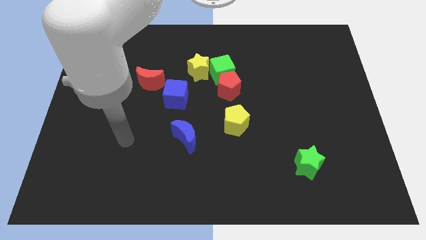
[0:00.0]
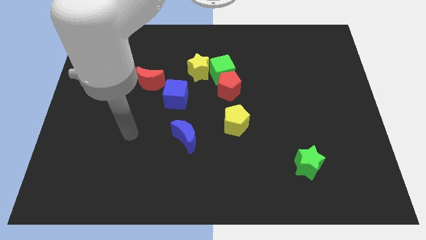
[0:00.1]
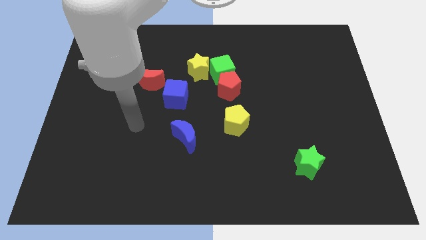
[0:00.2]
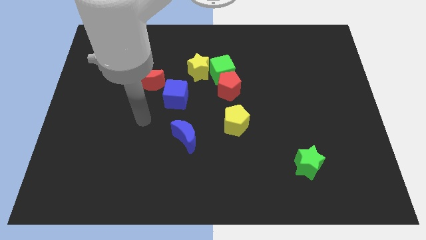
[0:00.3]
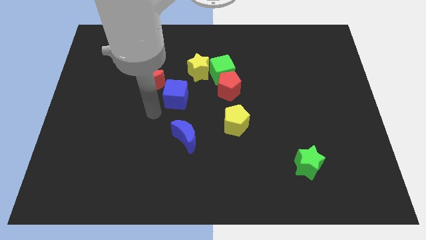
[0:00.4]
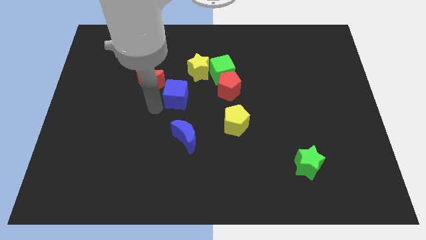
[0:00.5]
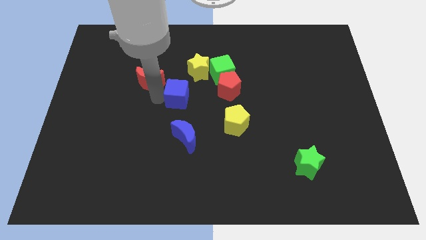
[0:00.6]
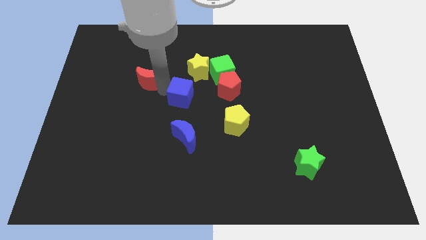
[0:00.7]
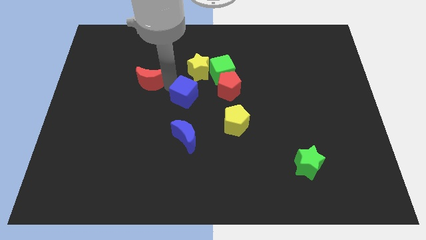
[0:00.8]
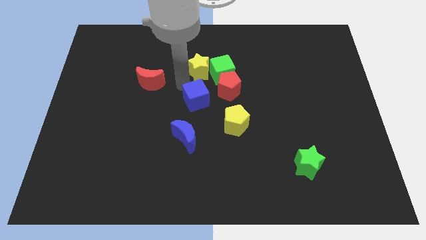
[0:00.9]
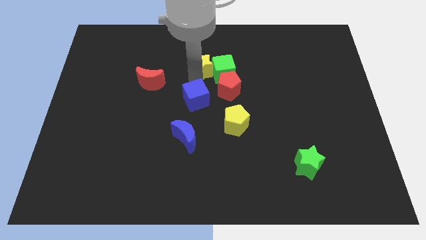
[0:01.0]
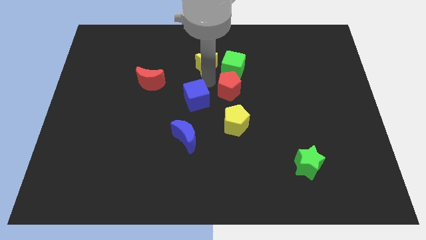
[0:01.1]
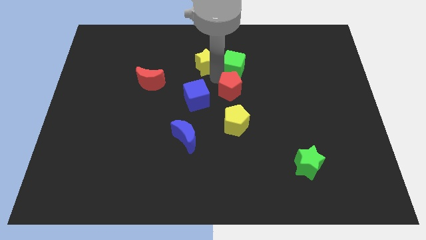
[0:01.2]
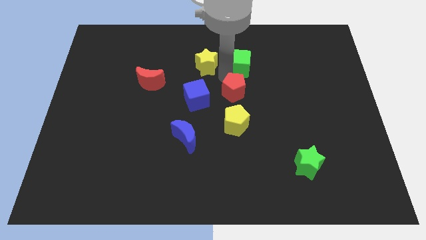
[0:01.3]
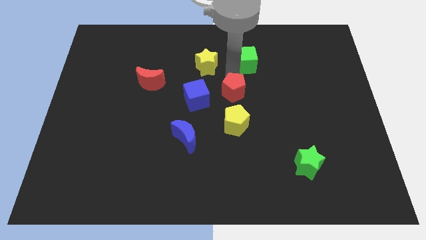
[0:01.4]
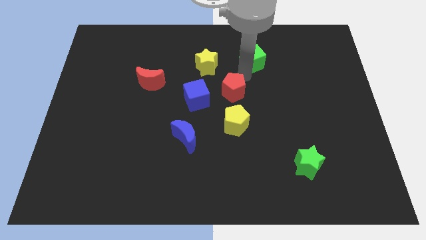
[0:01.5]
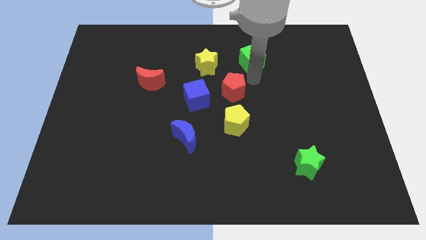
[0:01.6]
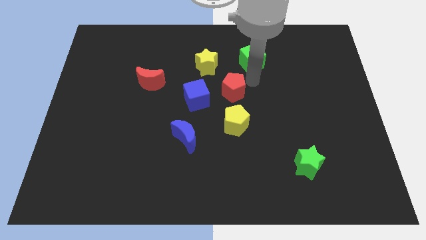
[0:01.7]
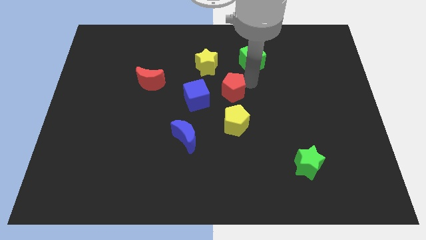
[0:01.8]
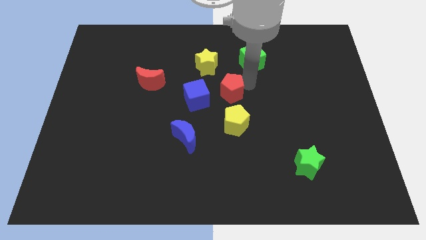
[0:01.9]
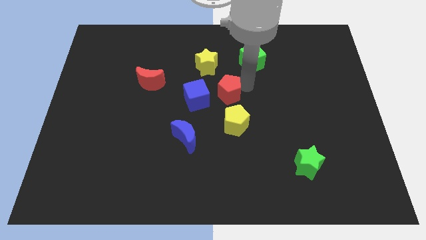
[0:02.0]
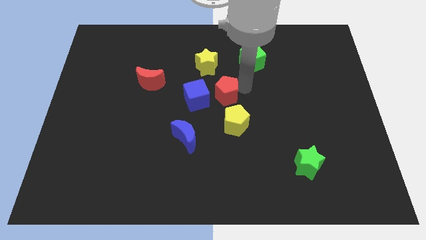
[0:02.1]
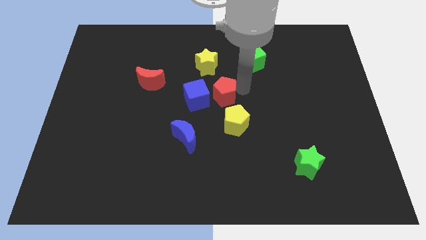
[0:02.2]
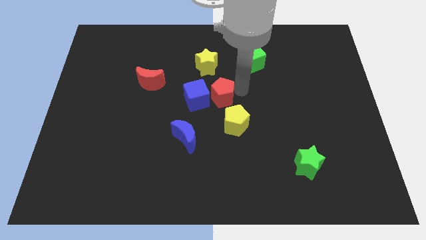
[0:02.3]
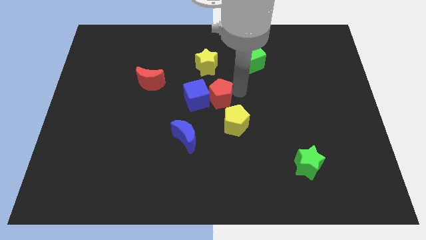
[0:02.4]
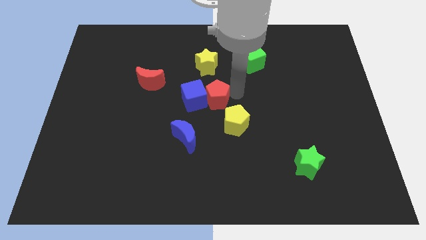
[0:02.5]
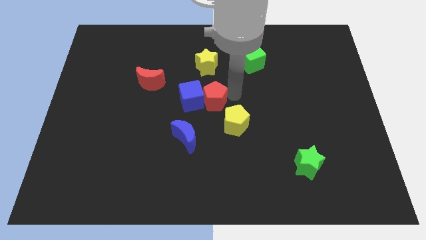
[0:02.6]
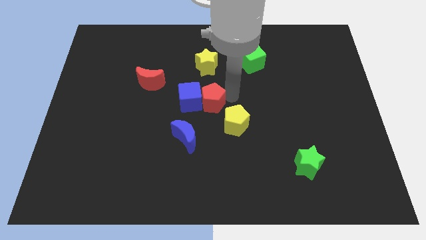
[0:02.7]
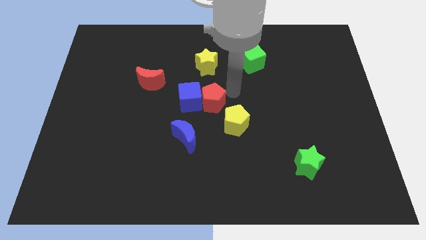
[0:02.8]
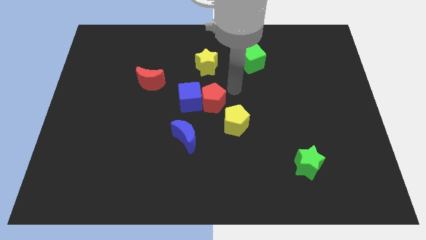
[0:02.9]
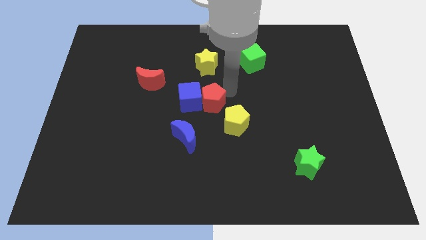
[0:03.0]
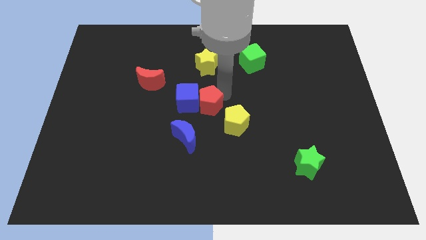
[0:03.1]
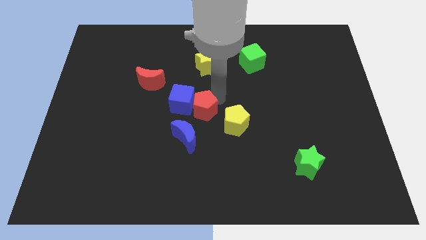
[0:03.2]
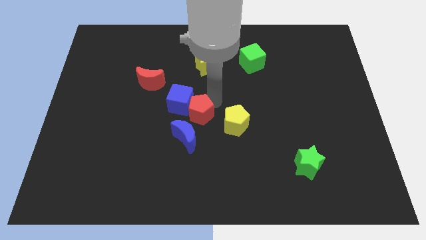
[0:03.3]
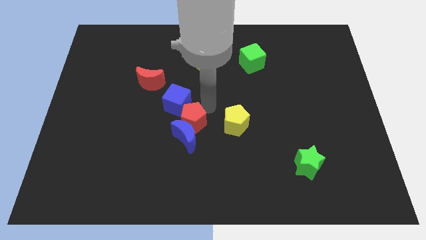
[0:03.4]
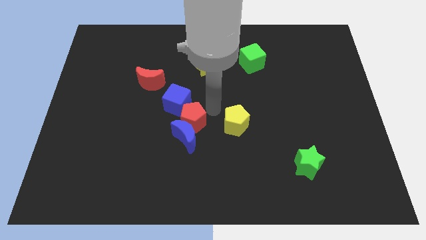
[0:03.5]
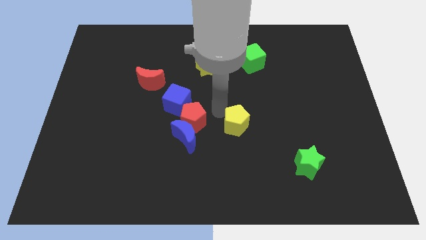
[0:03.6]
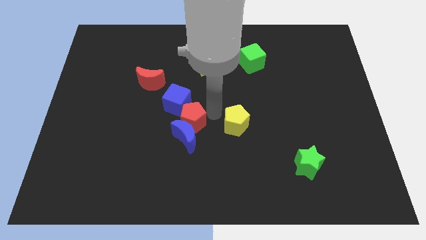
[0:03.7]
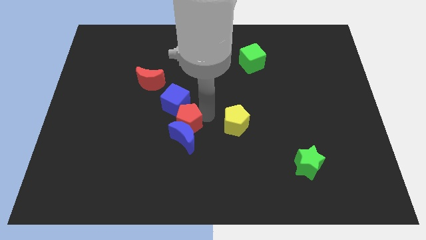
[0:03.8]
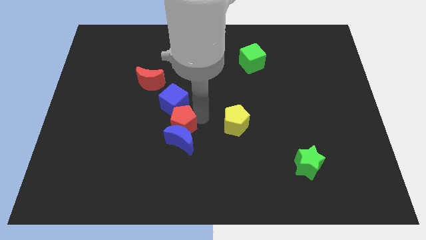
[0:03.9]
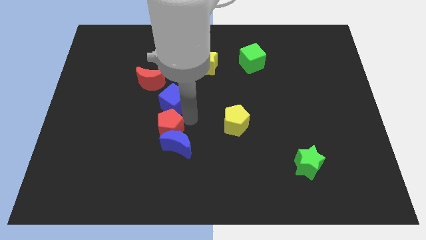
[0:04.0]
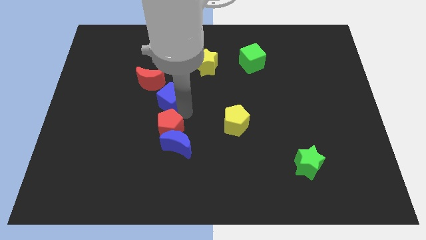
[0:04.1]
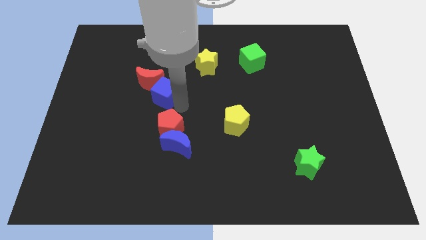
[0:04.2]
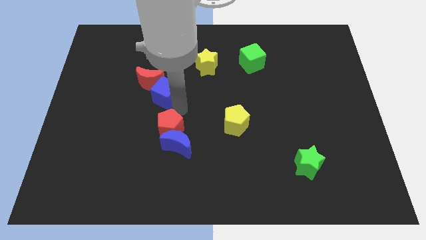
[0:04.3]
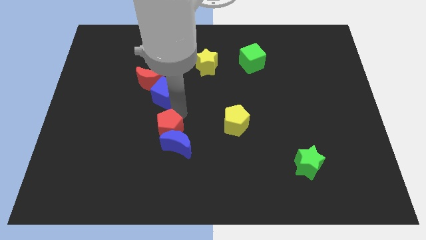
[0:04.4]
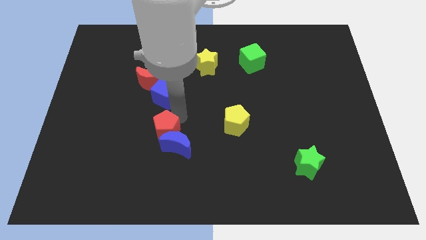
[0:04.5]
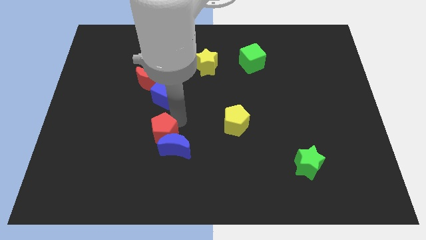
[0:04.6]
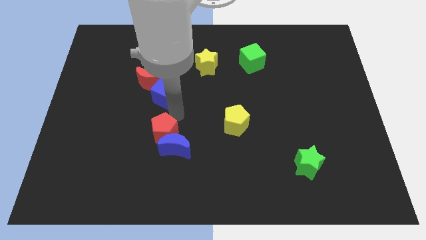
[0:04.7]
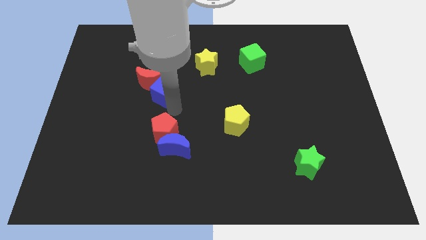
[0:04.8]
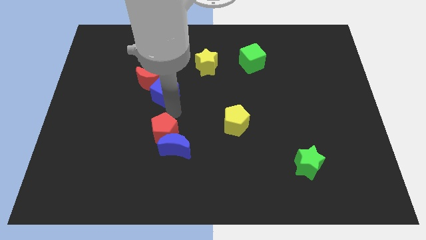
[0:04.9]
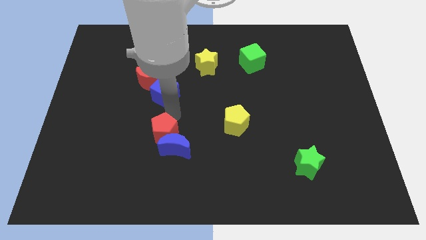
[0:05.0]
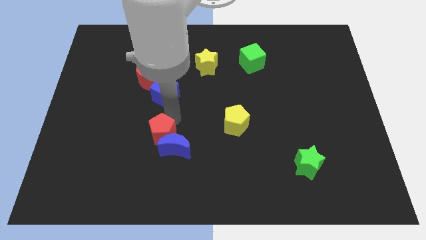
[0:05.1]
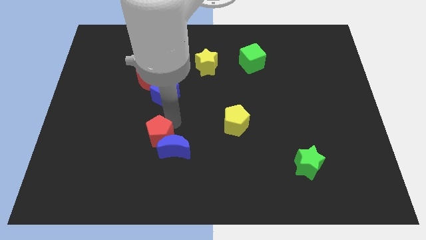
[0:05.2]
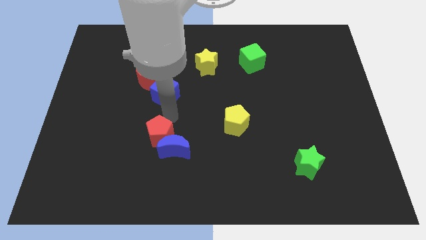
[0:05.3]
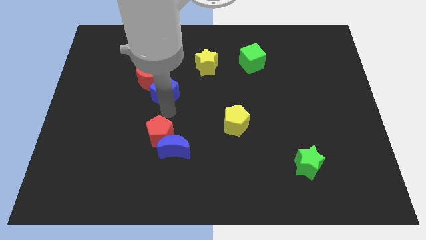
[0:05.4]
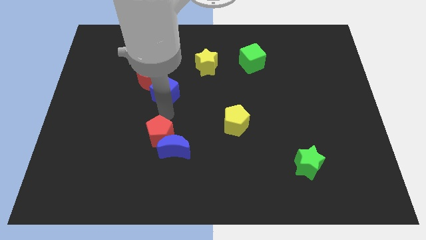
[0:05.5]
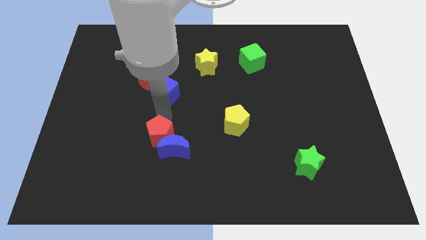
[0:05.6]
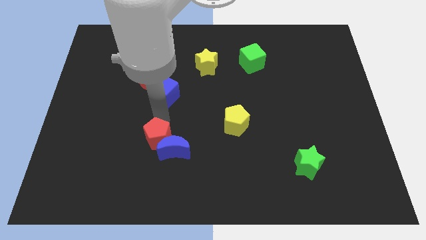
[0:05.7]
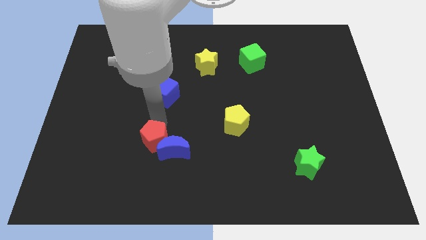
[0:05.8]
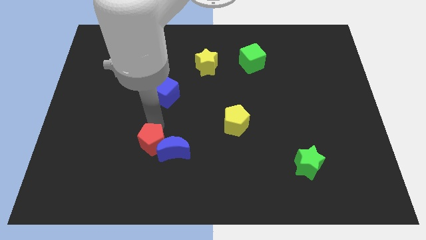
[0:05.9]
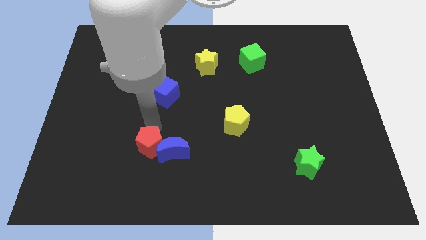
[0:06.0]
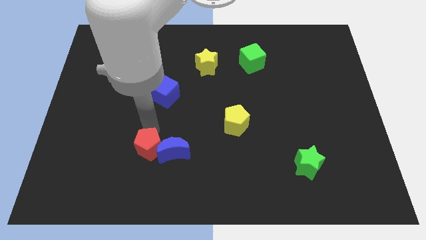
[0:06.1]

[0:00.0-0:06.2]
slide the red pentagon to the bottom left of the blue moon

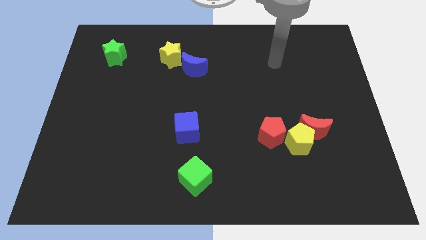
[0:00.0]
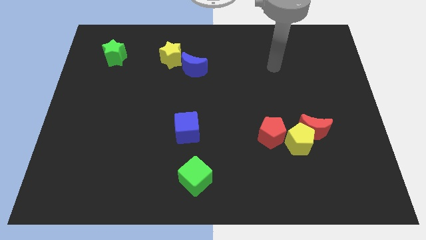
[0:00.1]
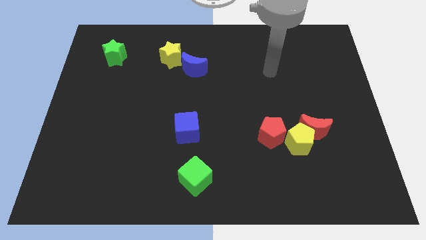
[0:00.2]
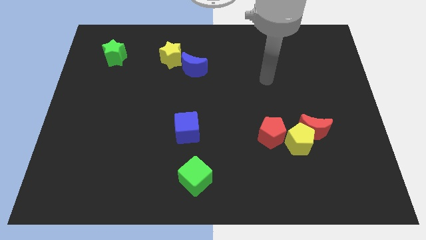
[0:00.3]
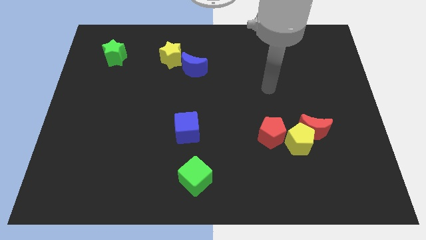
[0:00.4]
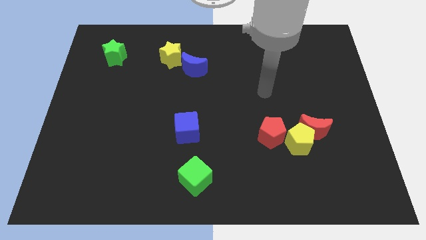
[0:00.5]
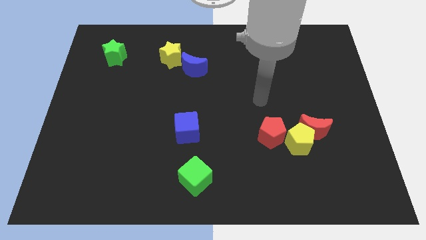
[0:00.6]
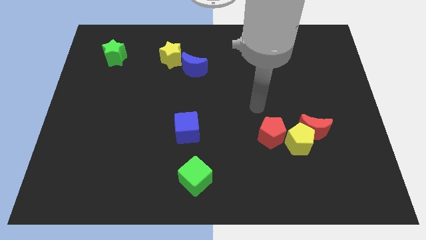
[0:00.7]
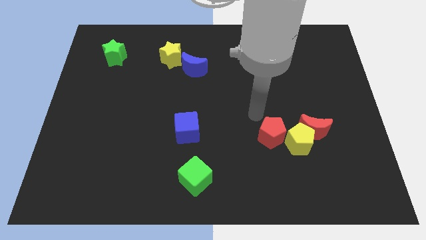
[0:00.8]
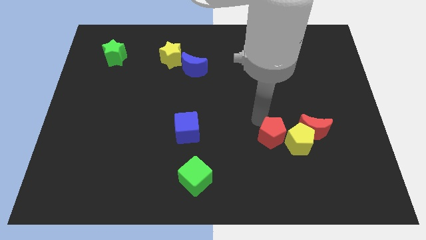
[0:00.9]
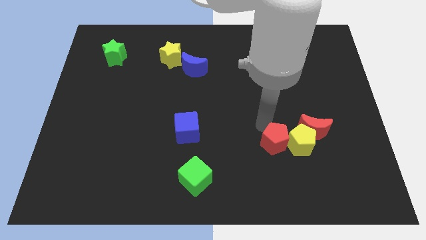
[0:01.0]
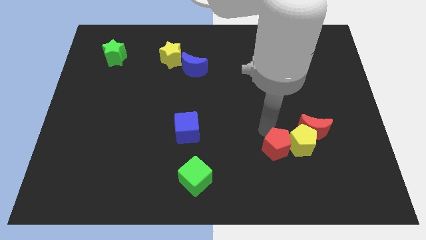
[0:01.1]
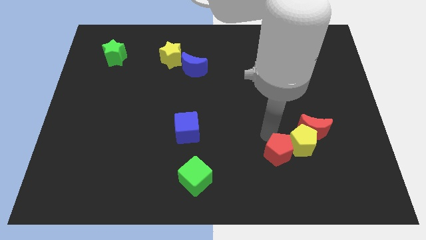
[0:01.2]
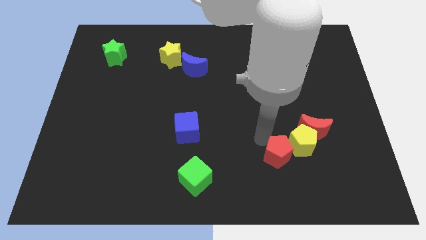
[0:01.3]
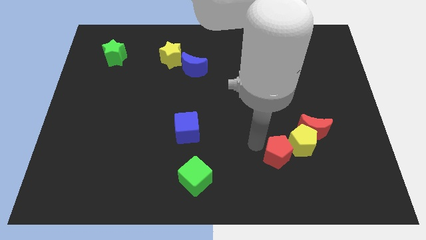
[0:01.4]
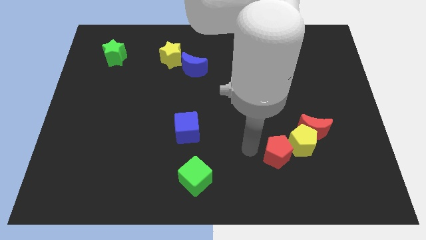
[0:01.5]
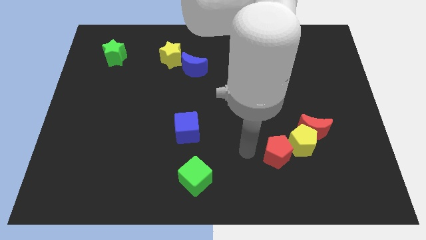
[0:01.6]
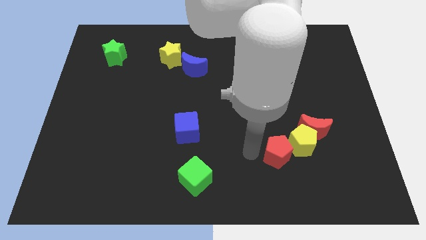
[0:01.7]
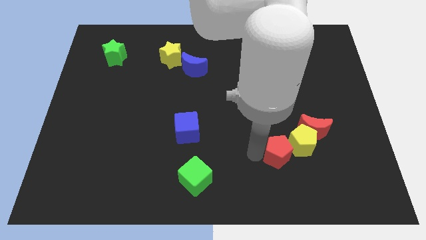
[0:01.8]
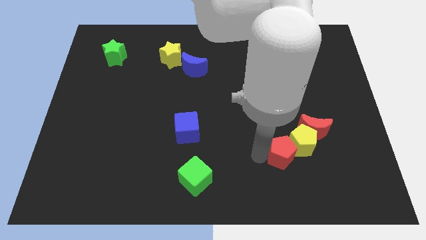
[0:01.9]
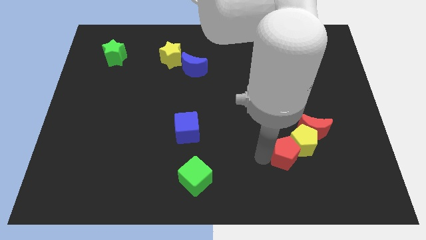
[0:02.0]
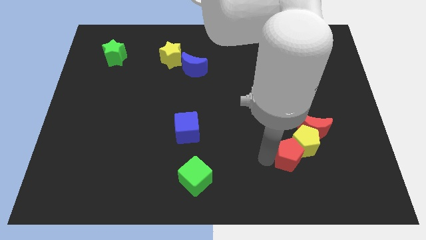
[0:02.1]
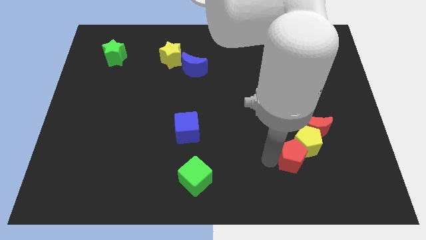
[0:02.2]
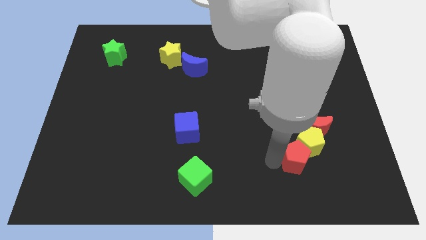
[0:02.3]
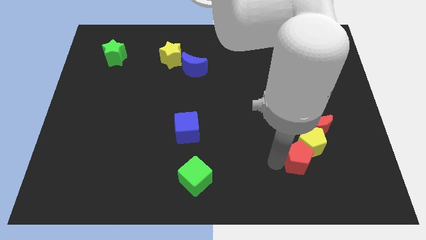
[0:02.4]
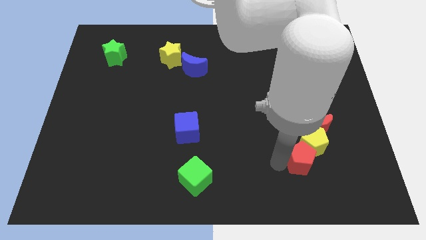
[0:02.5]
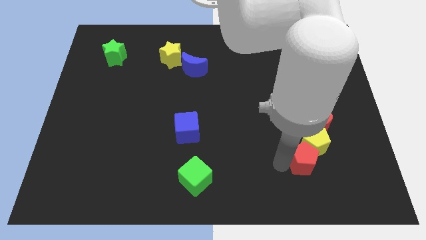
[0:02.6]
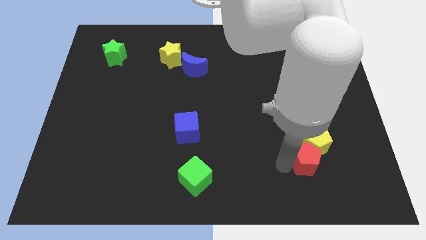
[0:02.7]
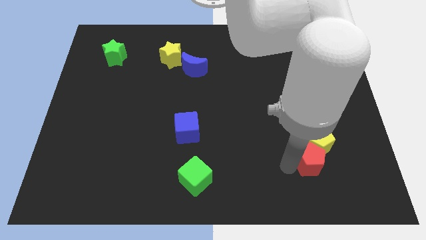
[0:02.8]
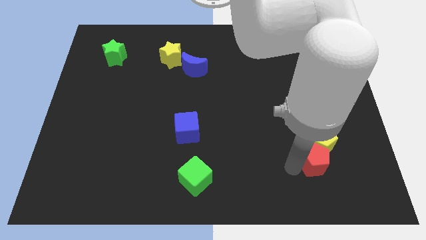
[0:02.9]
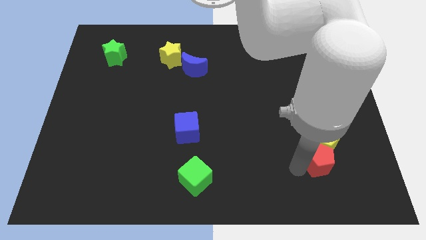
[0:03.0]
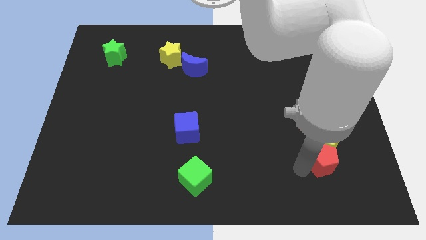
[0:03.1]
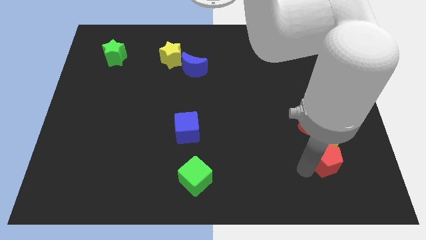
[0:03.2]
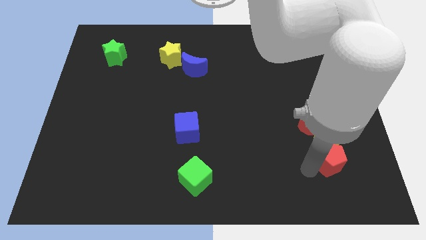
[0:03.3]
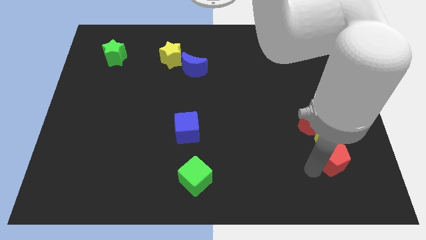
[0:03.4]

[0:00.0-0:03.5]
push the red pentagon to the bottom right side of the red moon
